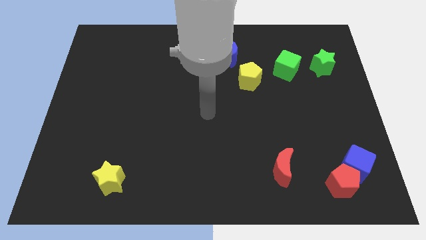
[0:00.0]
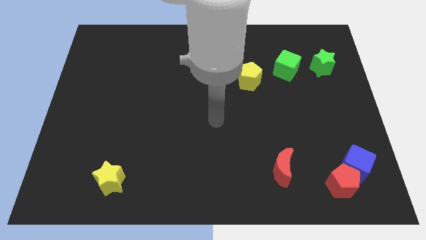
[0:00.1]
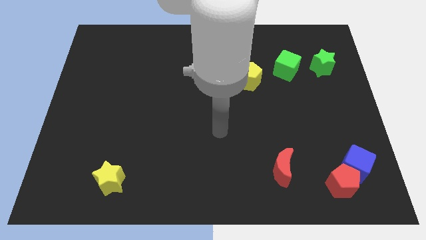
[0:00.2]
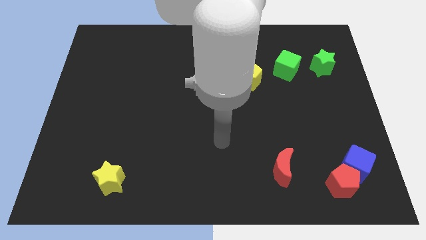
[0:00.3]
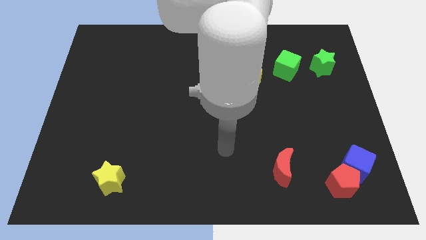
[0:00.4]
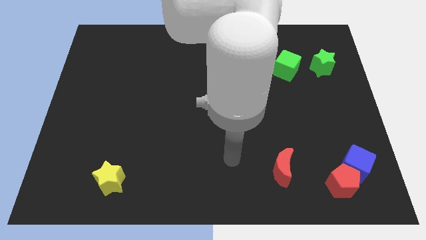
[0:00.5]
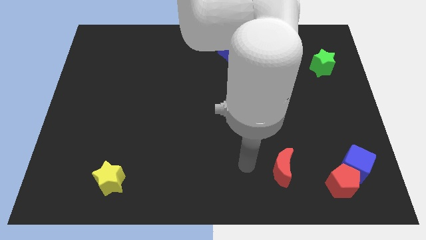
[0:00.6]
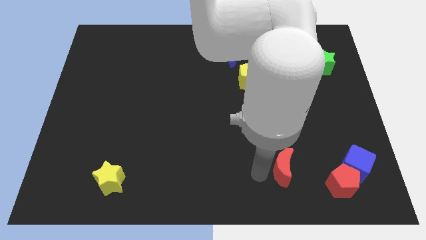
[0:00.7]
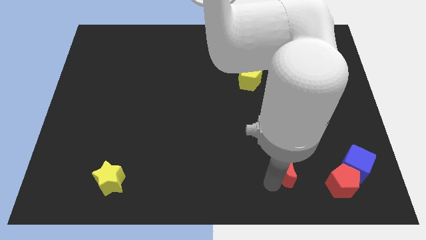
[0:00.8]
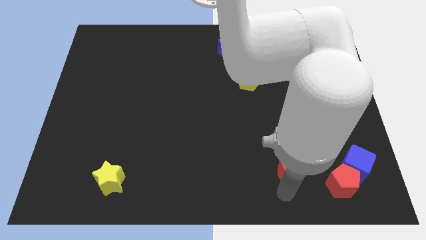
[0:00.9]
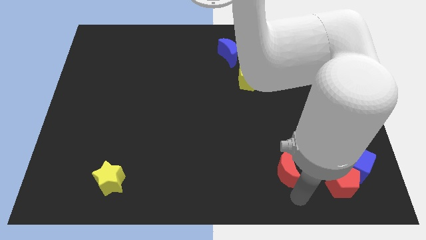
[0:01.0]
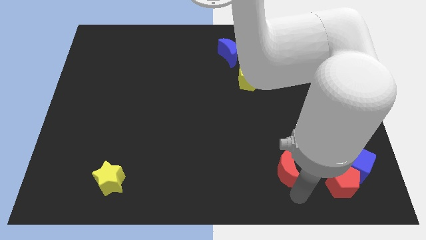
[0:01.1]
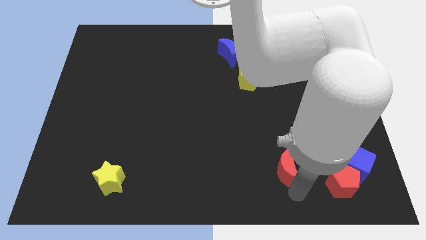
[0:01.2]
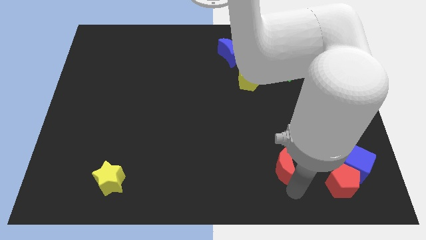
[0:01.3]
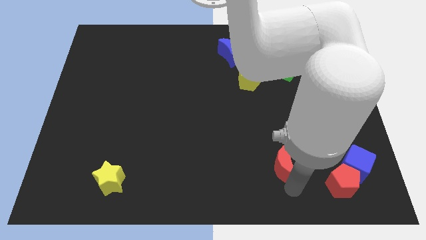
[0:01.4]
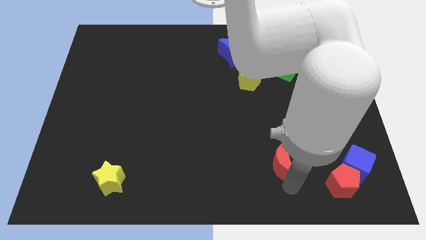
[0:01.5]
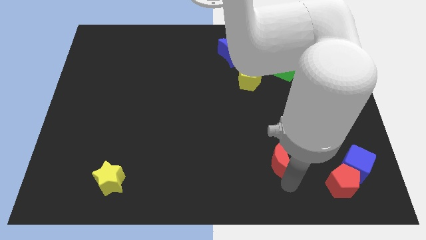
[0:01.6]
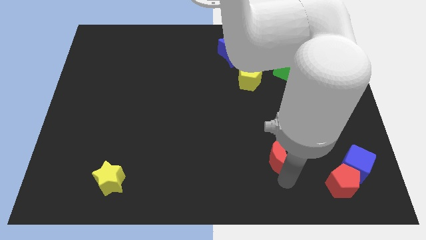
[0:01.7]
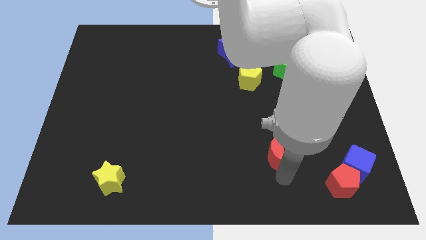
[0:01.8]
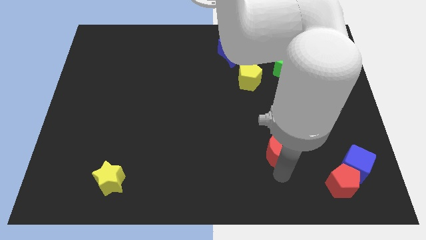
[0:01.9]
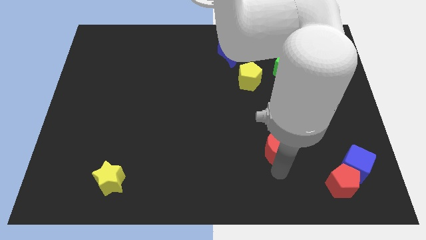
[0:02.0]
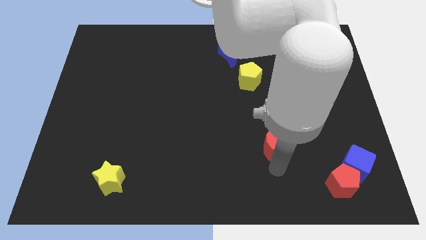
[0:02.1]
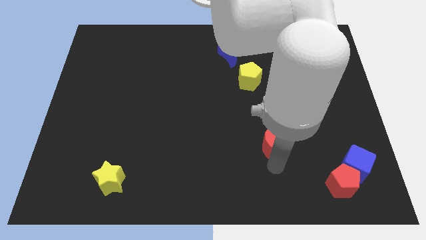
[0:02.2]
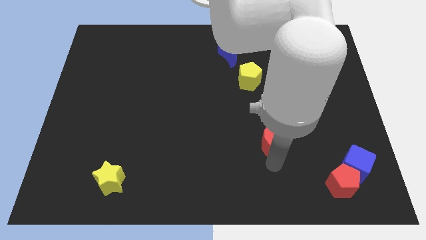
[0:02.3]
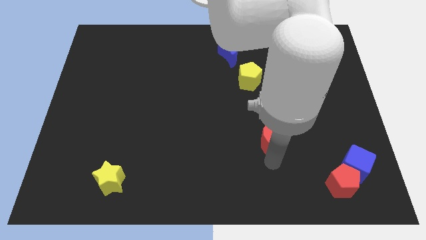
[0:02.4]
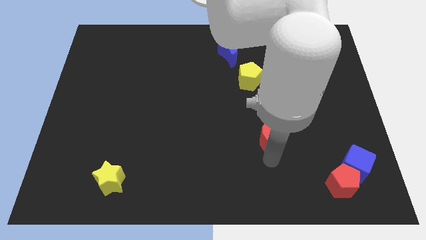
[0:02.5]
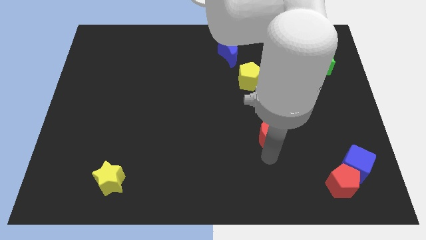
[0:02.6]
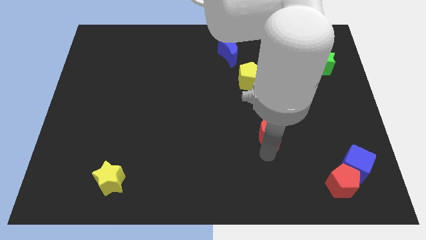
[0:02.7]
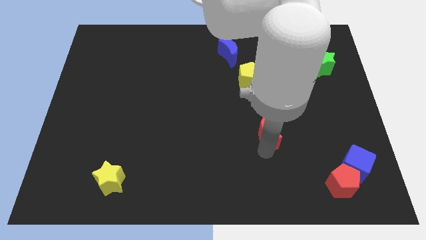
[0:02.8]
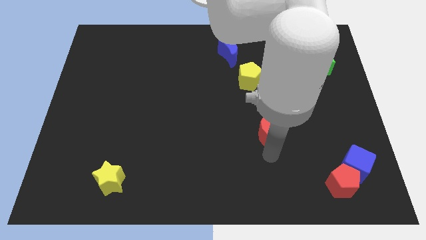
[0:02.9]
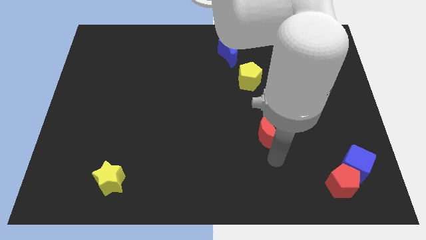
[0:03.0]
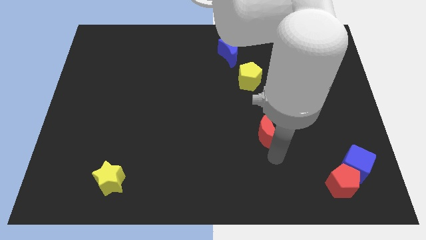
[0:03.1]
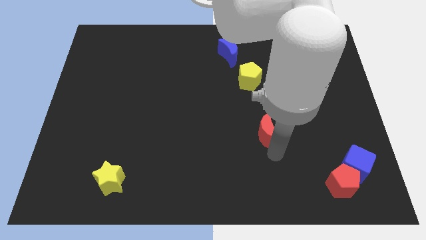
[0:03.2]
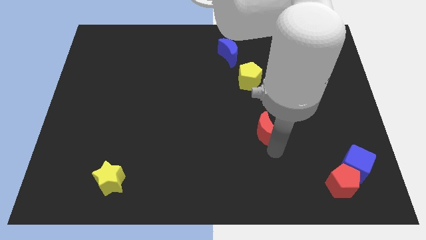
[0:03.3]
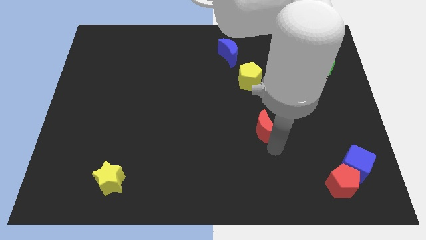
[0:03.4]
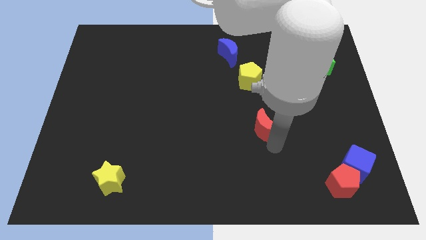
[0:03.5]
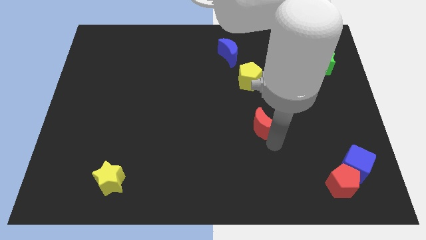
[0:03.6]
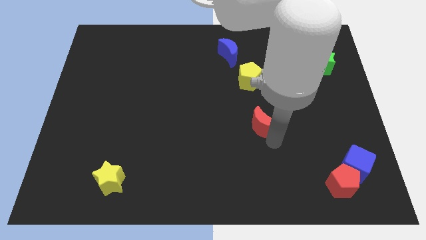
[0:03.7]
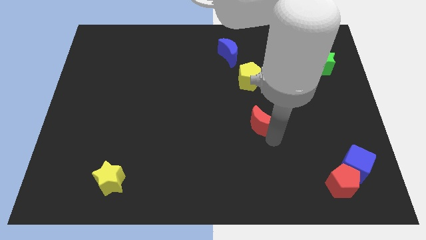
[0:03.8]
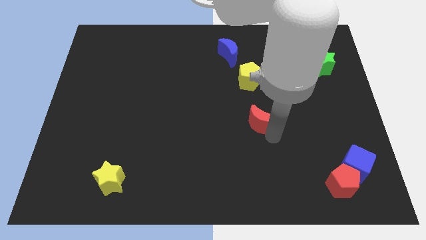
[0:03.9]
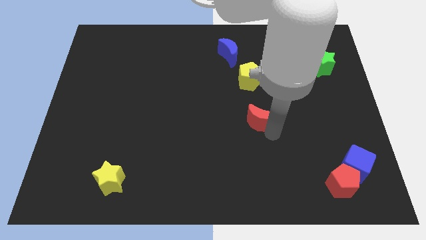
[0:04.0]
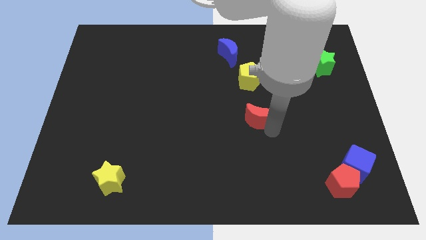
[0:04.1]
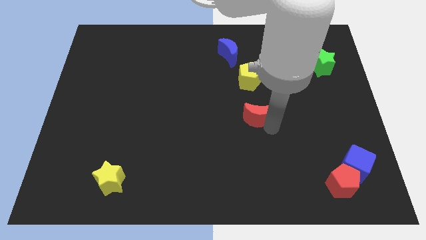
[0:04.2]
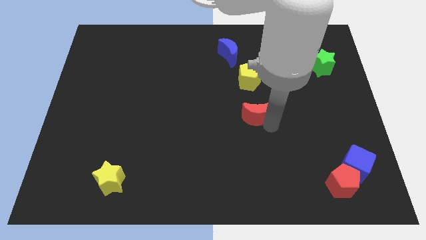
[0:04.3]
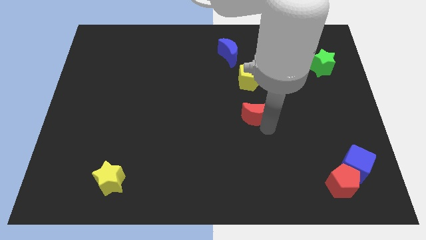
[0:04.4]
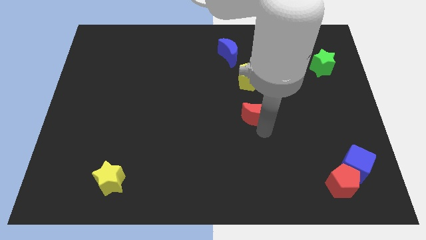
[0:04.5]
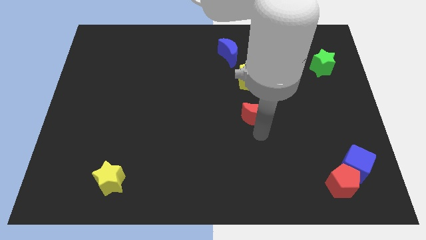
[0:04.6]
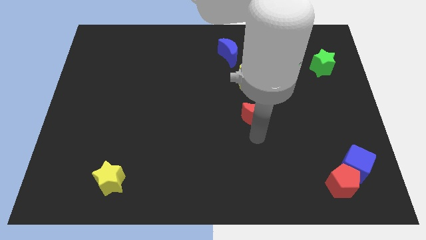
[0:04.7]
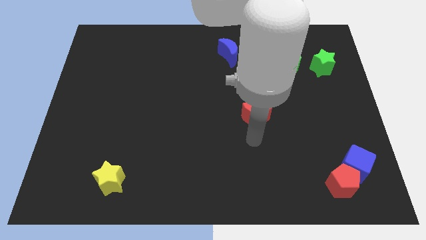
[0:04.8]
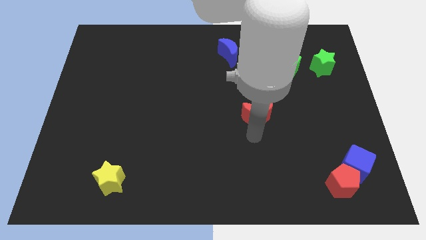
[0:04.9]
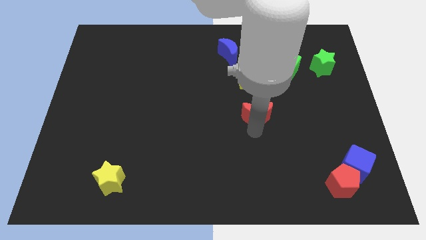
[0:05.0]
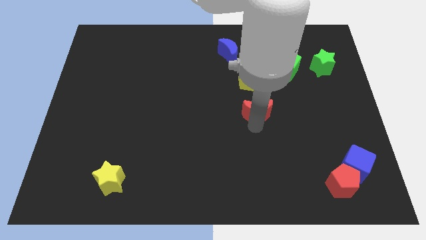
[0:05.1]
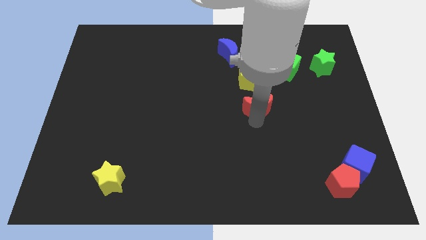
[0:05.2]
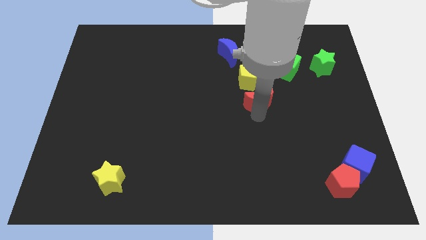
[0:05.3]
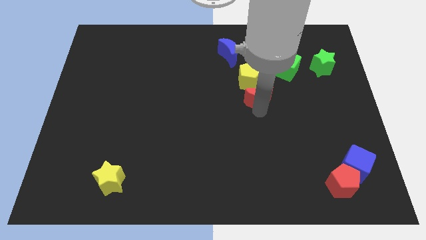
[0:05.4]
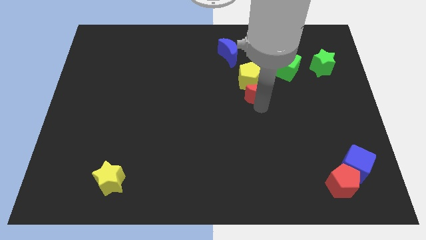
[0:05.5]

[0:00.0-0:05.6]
push the red moon towards the yellow pentagon

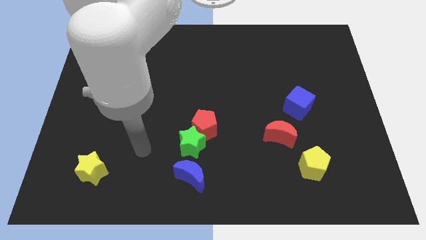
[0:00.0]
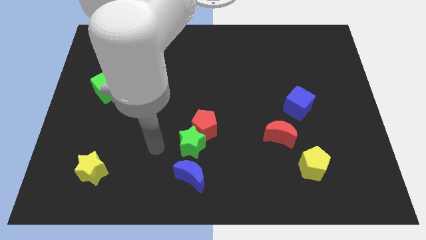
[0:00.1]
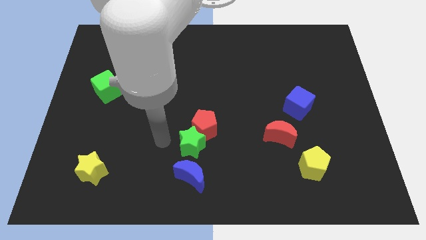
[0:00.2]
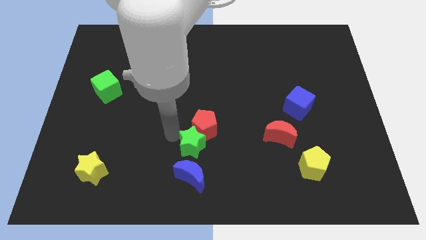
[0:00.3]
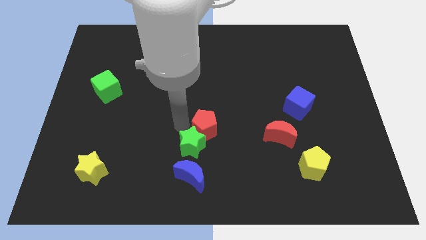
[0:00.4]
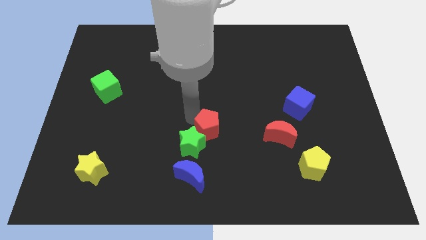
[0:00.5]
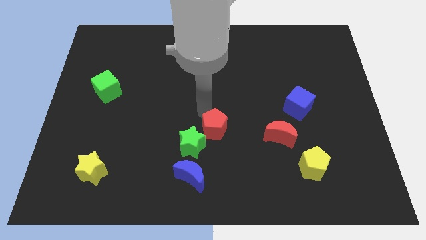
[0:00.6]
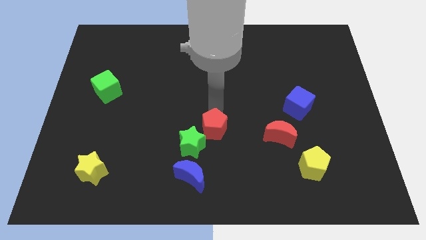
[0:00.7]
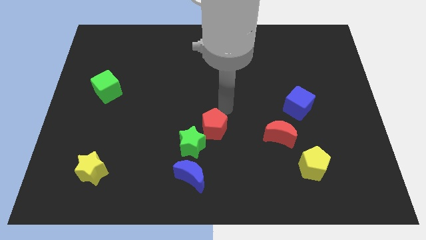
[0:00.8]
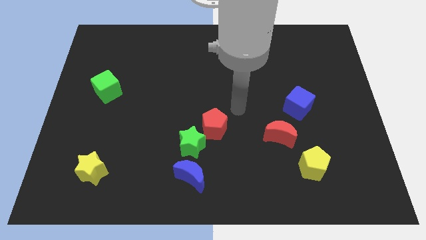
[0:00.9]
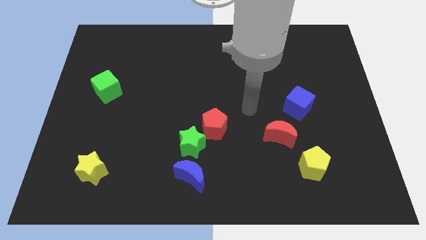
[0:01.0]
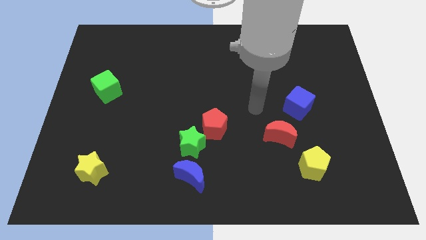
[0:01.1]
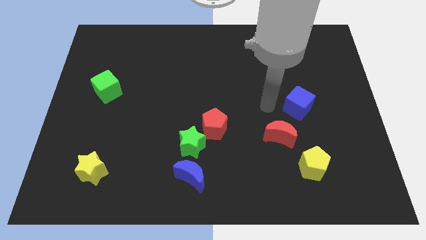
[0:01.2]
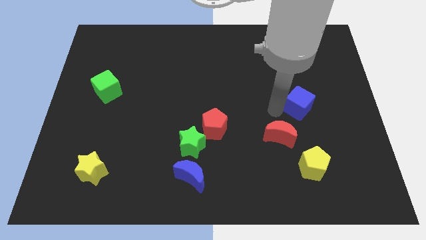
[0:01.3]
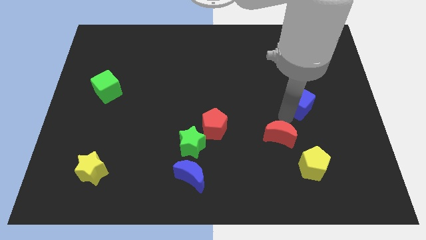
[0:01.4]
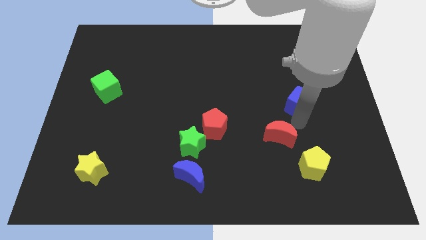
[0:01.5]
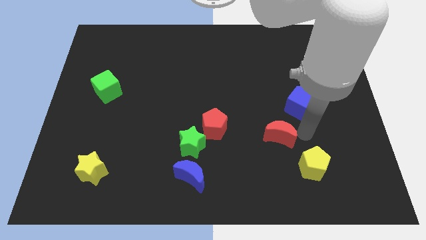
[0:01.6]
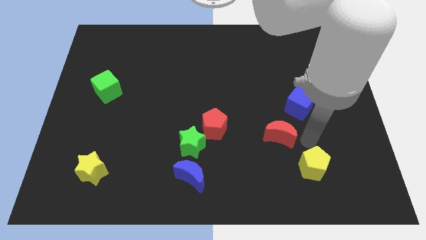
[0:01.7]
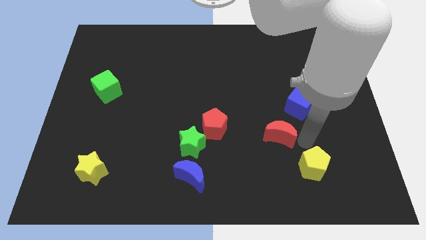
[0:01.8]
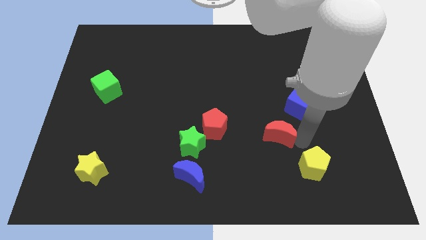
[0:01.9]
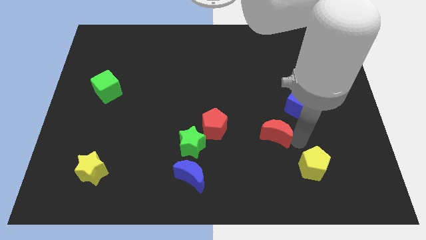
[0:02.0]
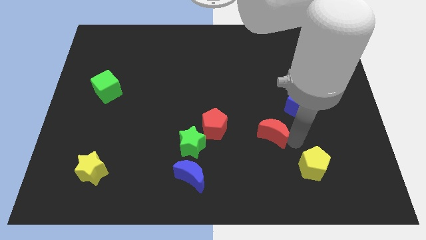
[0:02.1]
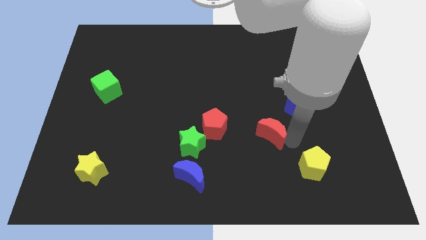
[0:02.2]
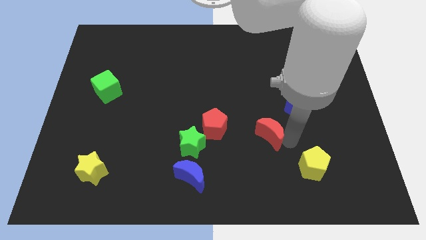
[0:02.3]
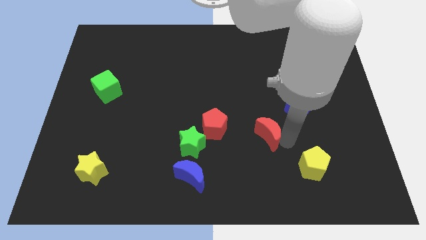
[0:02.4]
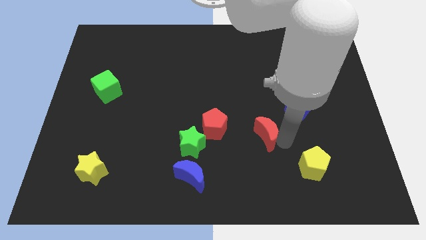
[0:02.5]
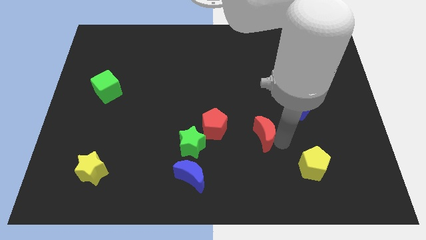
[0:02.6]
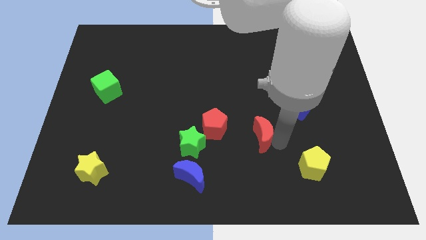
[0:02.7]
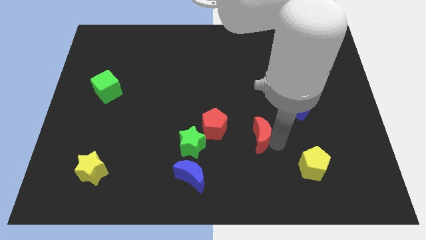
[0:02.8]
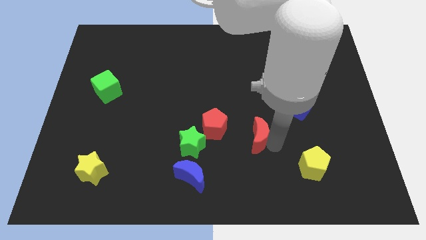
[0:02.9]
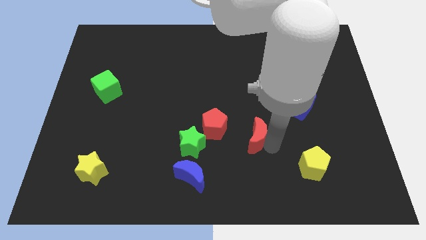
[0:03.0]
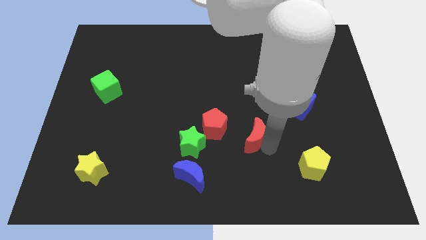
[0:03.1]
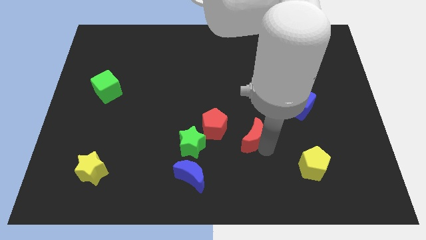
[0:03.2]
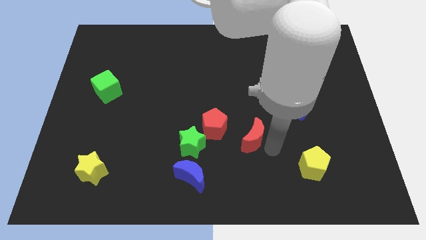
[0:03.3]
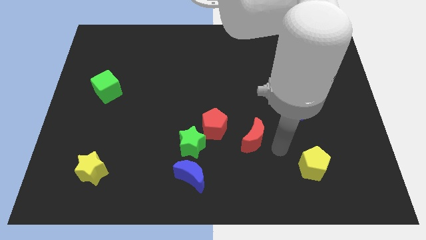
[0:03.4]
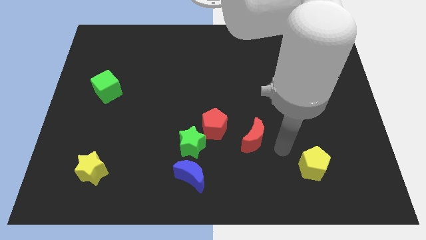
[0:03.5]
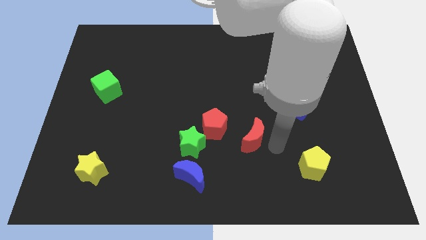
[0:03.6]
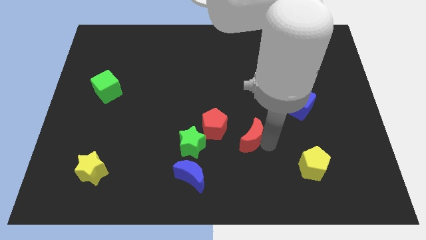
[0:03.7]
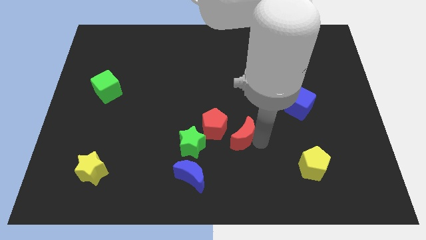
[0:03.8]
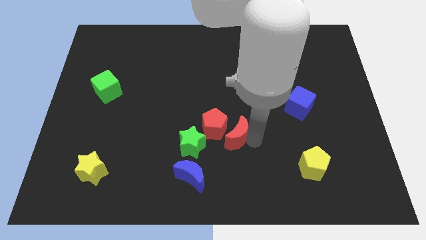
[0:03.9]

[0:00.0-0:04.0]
put the red moon close to the red pentagon
